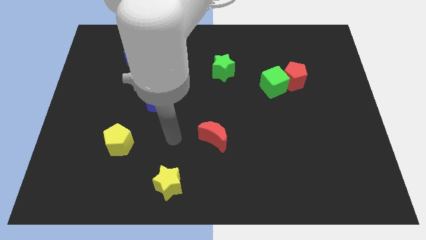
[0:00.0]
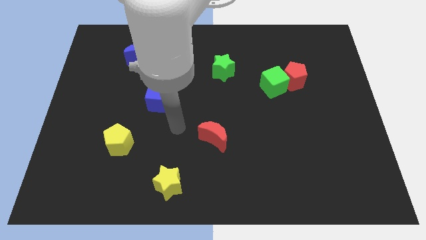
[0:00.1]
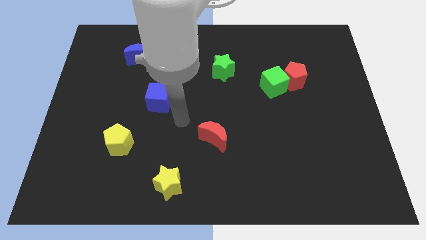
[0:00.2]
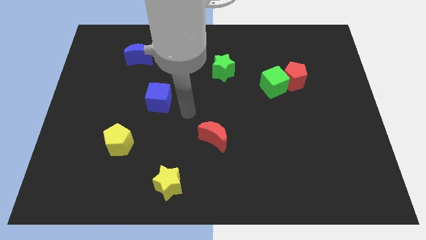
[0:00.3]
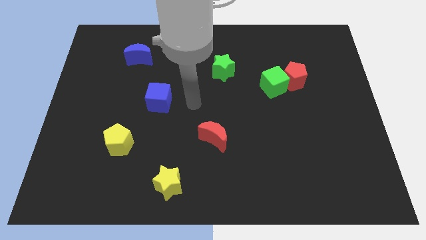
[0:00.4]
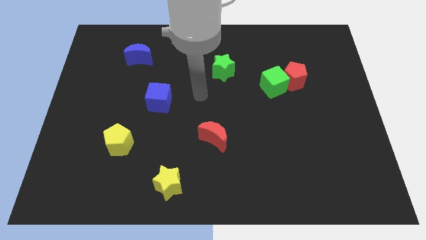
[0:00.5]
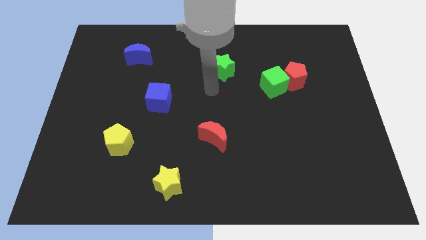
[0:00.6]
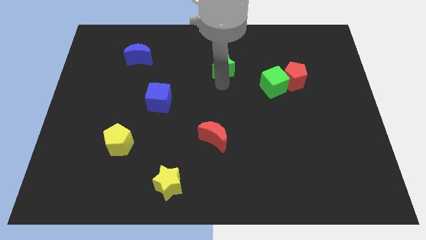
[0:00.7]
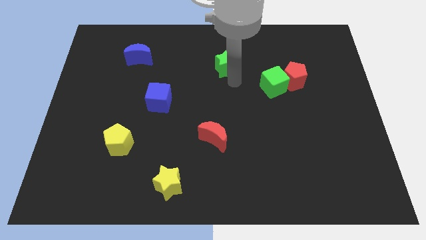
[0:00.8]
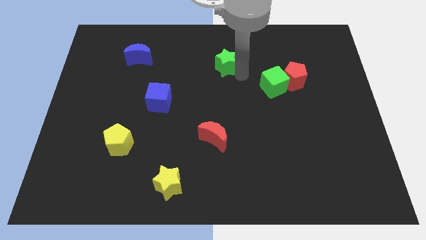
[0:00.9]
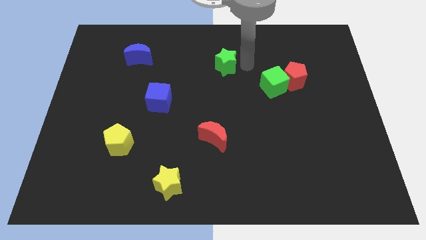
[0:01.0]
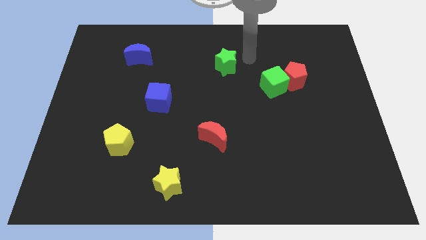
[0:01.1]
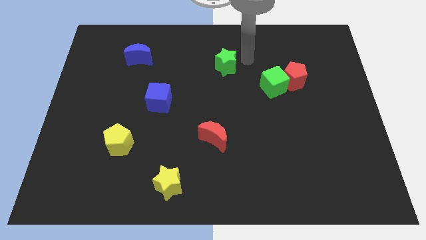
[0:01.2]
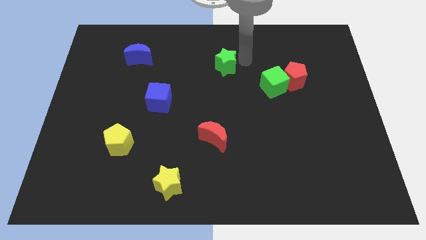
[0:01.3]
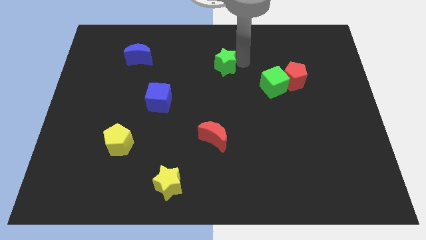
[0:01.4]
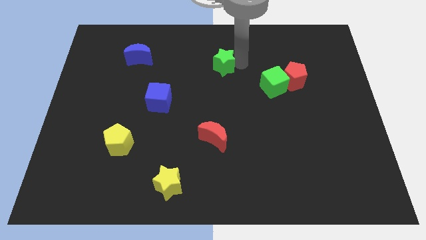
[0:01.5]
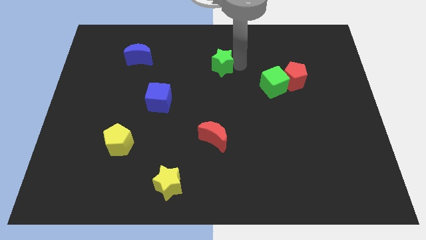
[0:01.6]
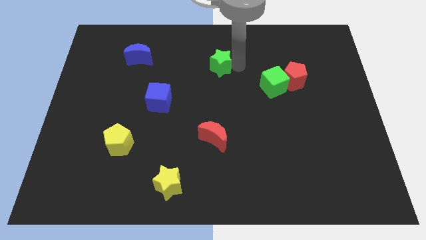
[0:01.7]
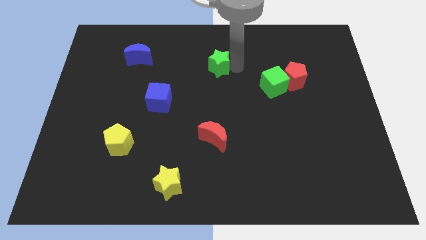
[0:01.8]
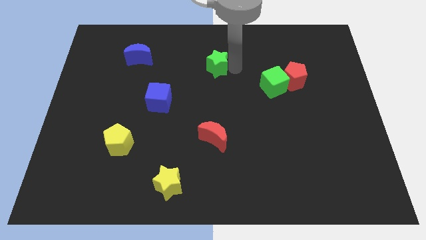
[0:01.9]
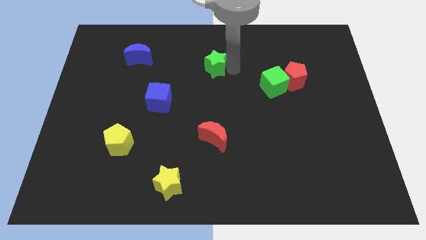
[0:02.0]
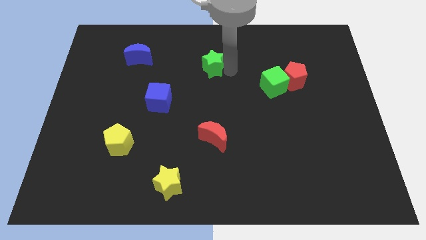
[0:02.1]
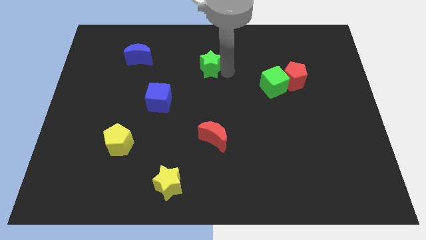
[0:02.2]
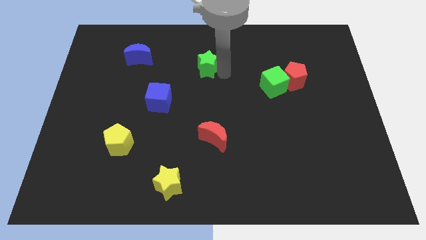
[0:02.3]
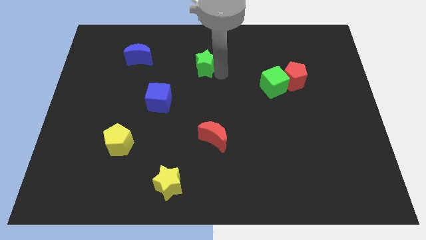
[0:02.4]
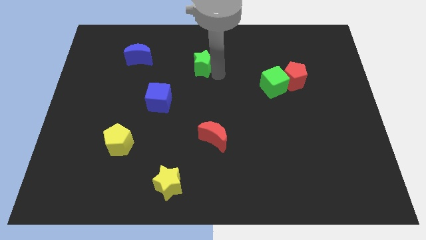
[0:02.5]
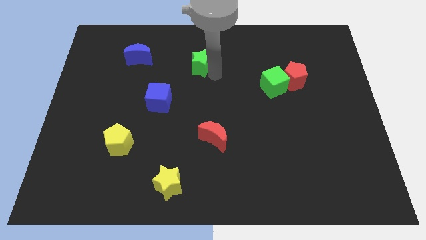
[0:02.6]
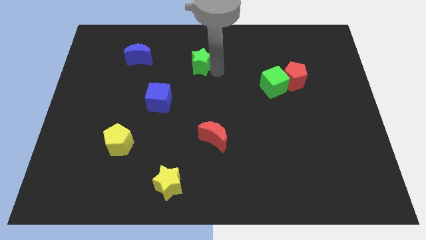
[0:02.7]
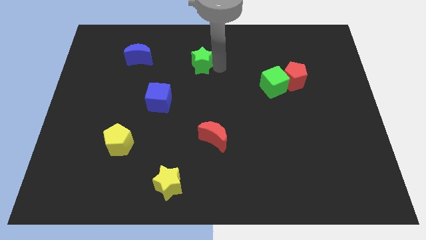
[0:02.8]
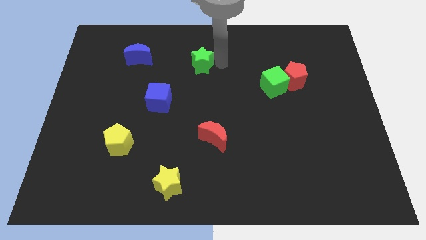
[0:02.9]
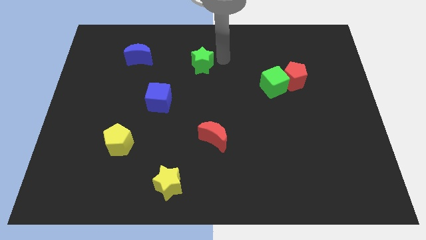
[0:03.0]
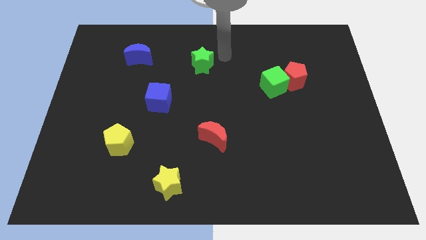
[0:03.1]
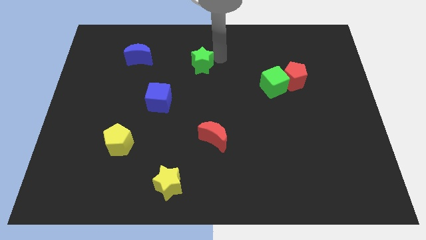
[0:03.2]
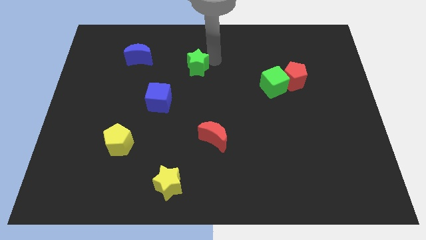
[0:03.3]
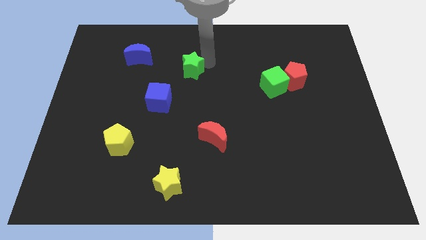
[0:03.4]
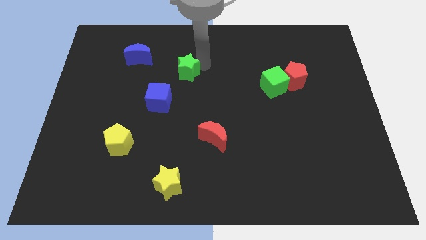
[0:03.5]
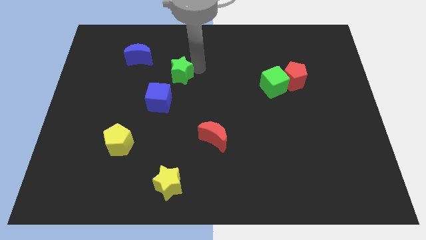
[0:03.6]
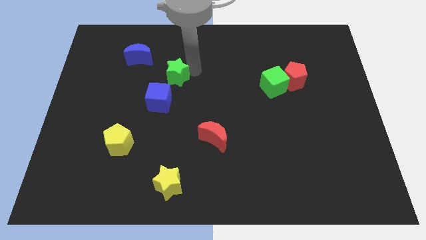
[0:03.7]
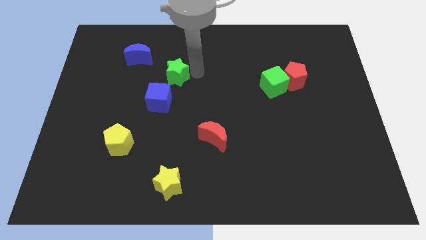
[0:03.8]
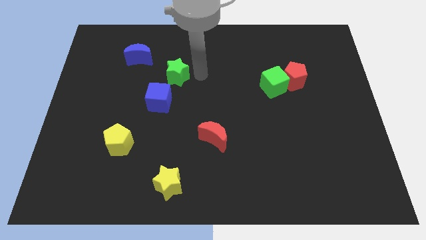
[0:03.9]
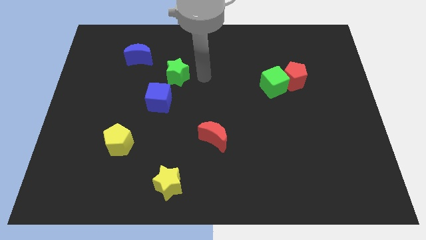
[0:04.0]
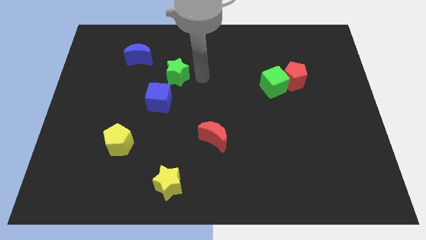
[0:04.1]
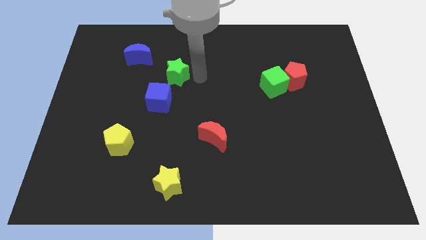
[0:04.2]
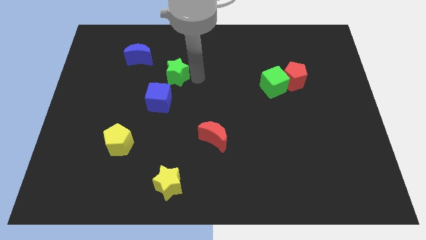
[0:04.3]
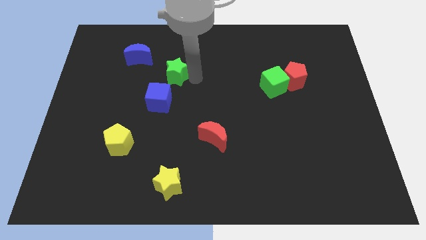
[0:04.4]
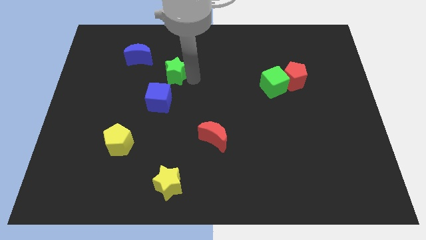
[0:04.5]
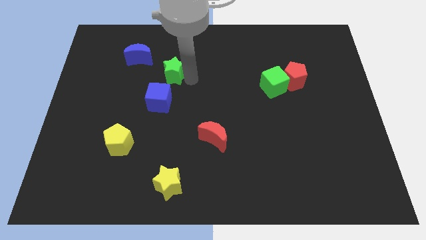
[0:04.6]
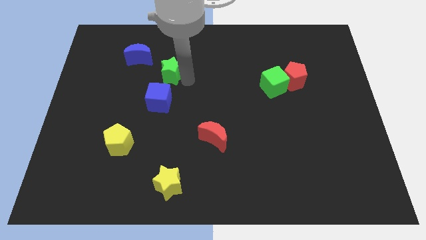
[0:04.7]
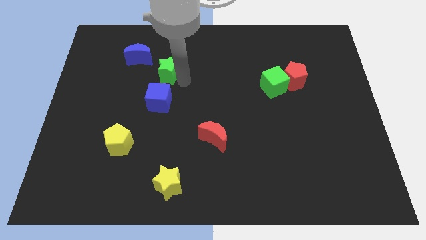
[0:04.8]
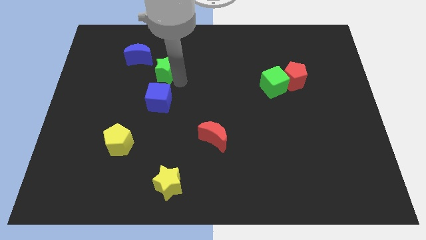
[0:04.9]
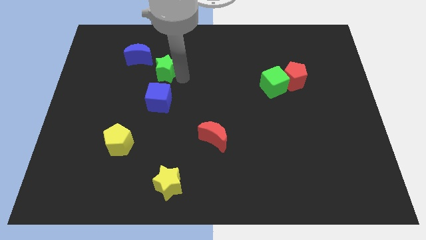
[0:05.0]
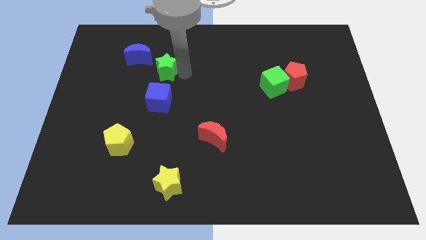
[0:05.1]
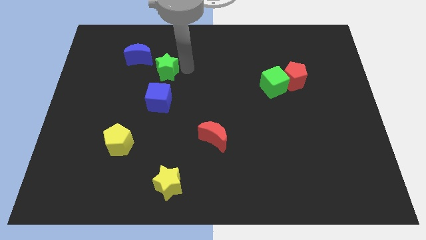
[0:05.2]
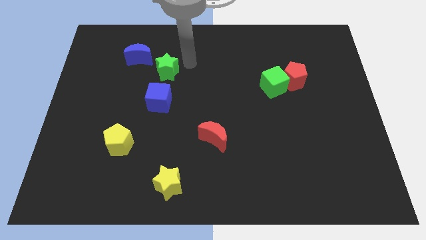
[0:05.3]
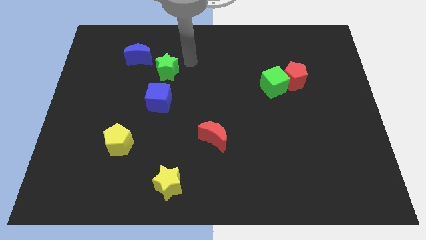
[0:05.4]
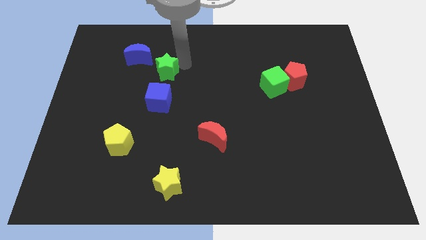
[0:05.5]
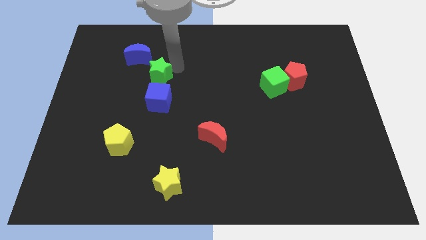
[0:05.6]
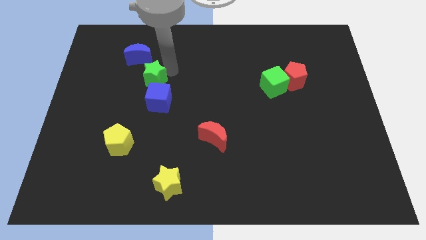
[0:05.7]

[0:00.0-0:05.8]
put the green star diagonally up and to the left of the blue cube

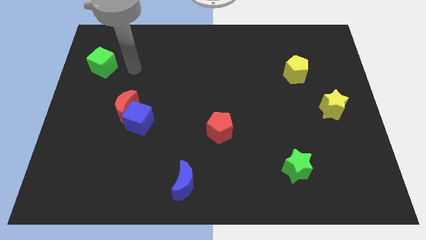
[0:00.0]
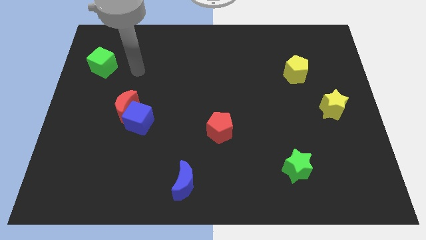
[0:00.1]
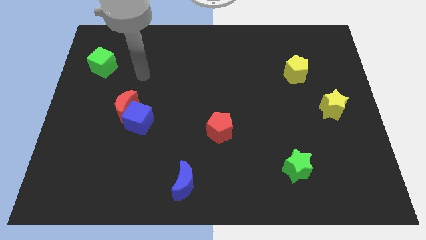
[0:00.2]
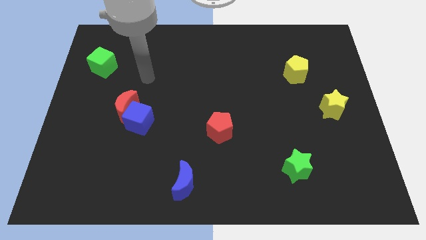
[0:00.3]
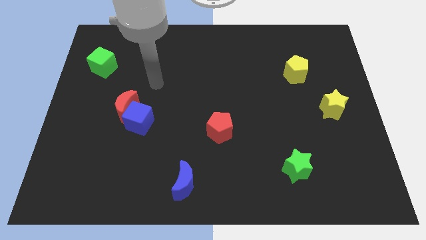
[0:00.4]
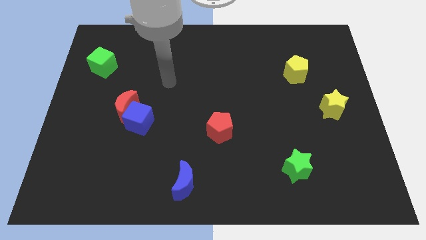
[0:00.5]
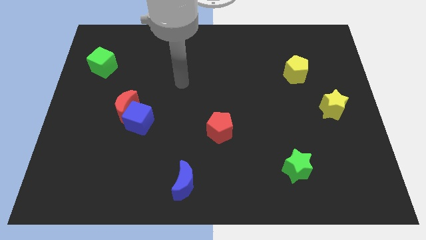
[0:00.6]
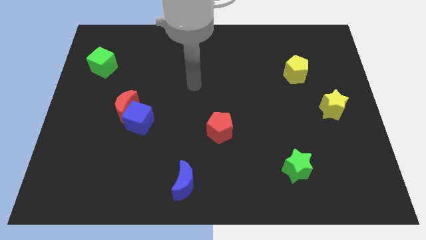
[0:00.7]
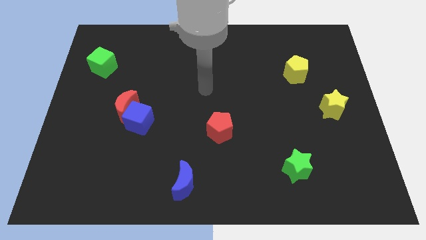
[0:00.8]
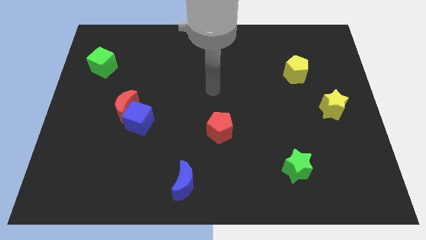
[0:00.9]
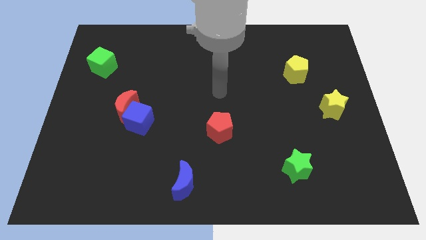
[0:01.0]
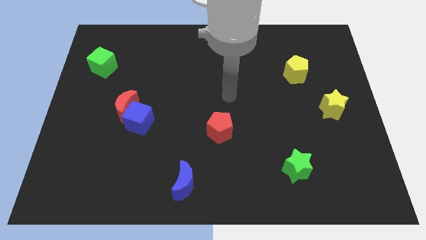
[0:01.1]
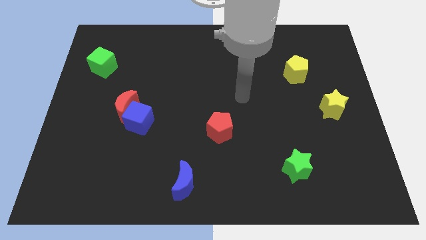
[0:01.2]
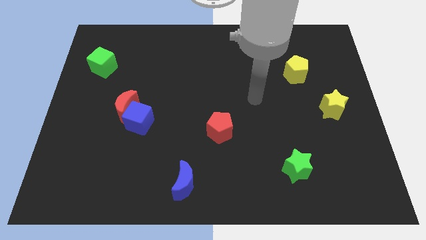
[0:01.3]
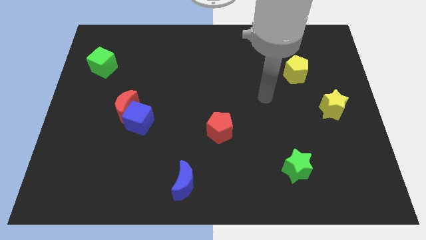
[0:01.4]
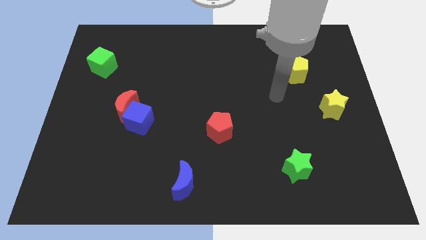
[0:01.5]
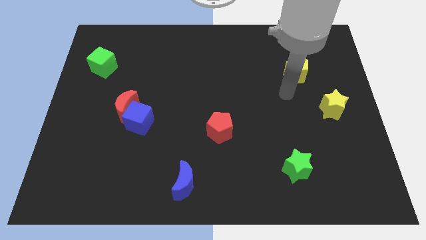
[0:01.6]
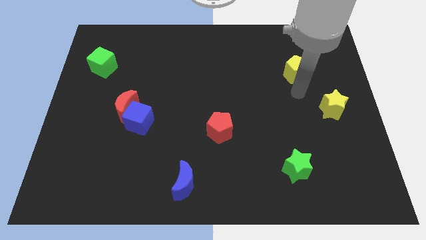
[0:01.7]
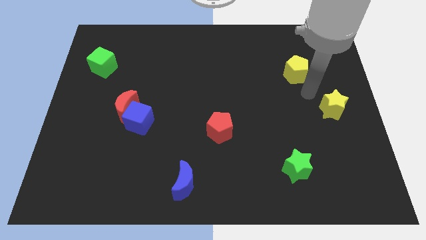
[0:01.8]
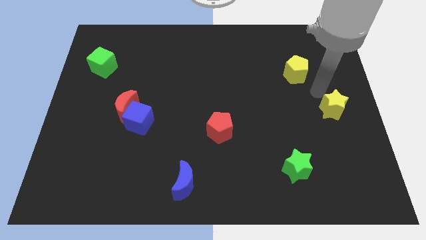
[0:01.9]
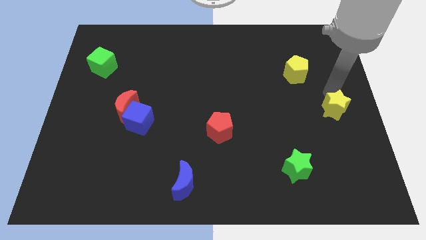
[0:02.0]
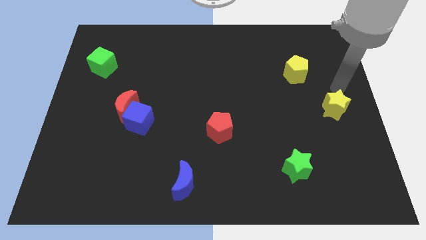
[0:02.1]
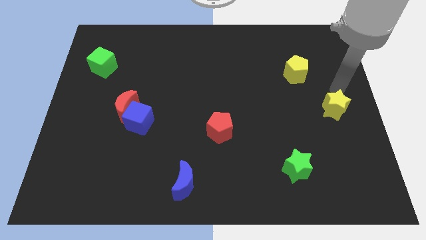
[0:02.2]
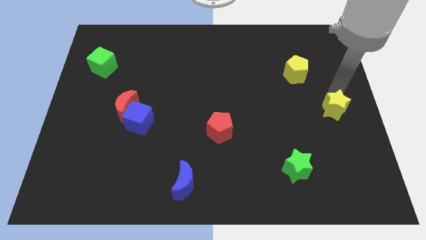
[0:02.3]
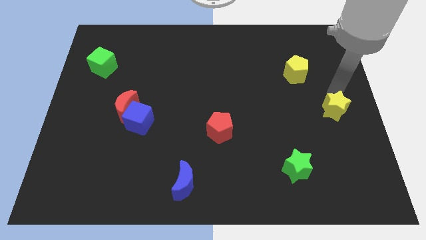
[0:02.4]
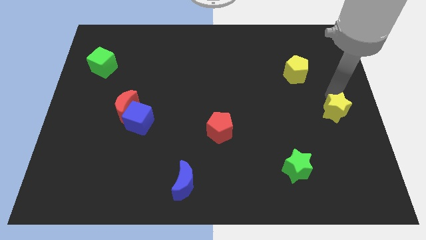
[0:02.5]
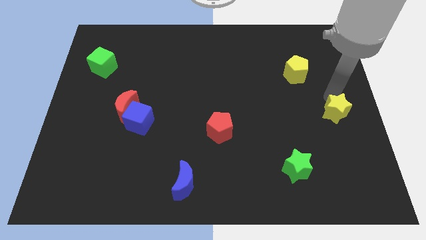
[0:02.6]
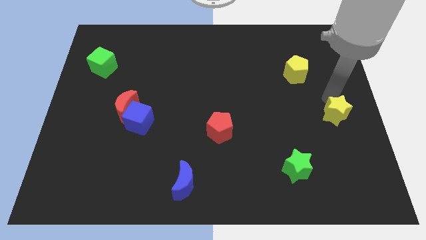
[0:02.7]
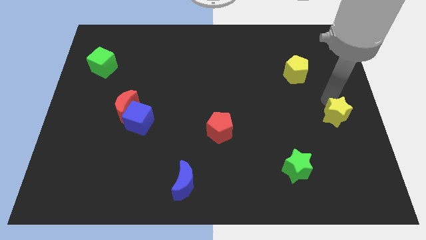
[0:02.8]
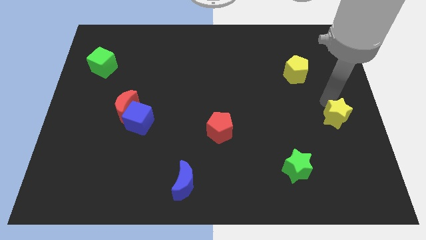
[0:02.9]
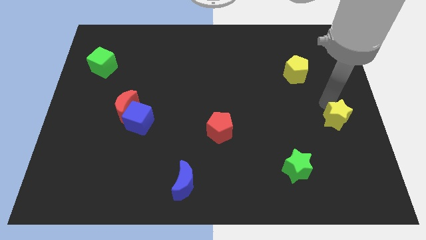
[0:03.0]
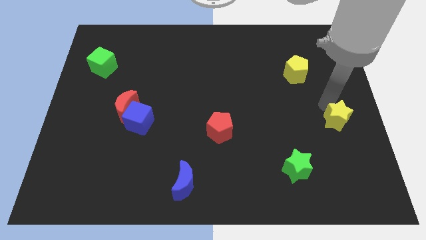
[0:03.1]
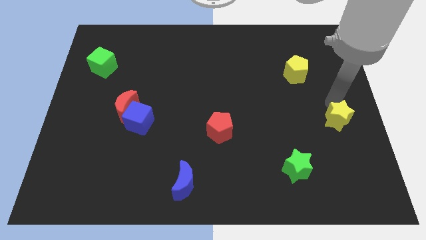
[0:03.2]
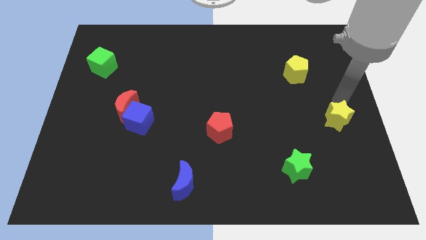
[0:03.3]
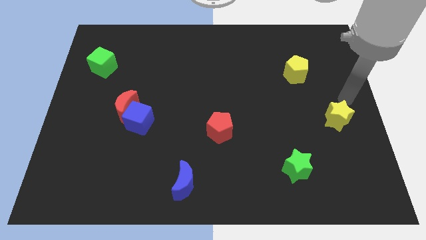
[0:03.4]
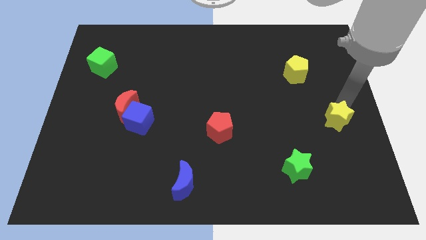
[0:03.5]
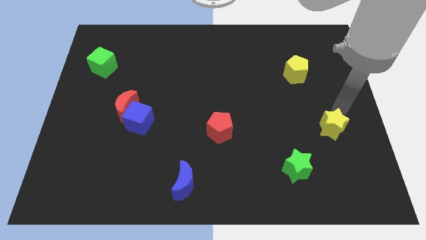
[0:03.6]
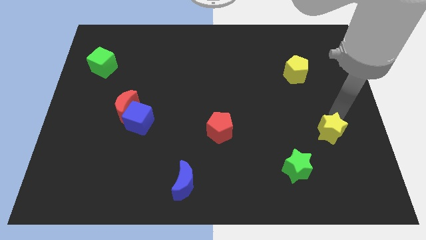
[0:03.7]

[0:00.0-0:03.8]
put the yellow star to the top right of the green star
